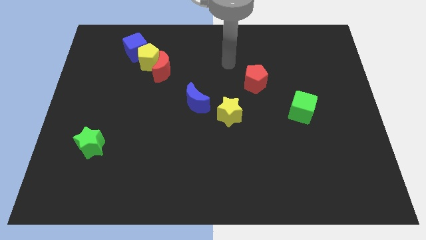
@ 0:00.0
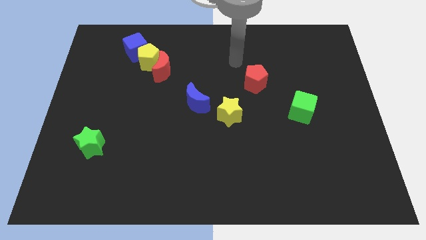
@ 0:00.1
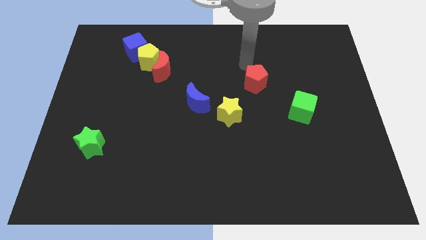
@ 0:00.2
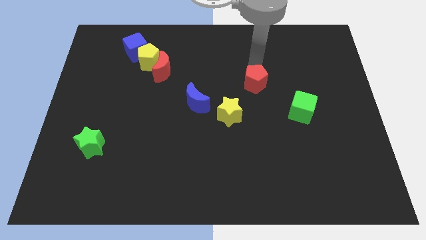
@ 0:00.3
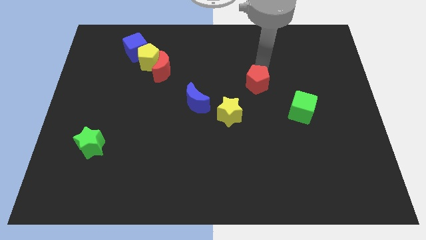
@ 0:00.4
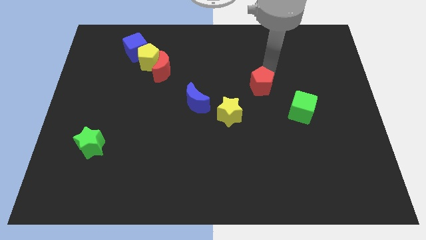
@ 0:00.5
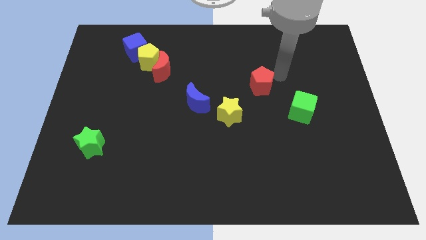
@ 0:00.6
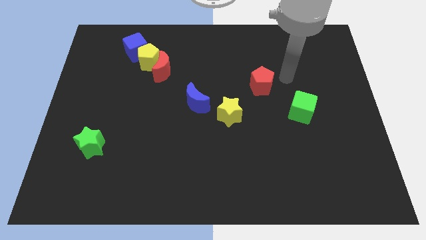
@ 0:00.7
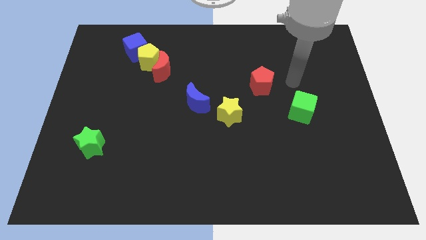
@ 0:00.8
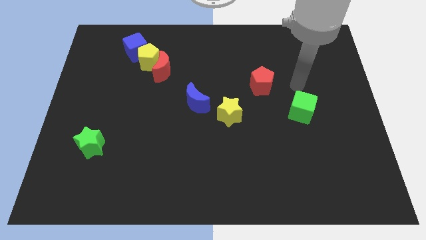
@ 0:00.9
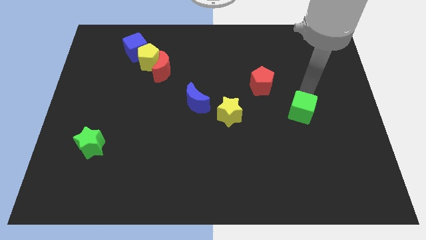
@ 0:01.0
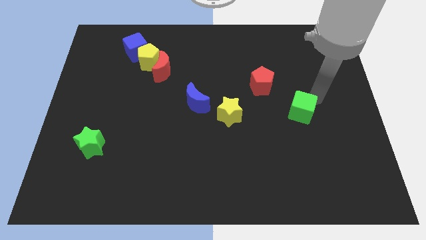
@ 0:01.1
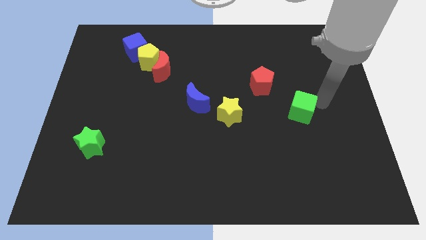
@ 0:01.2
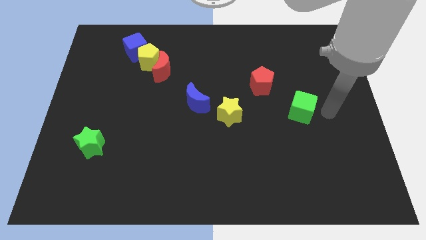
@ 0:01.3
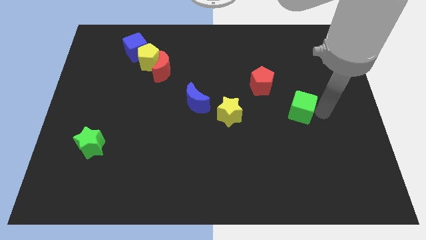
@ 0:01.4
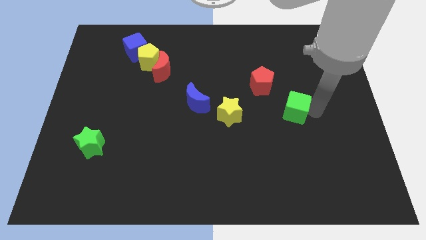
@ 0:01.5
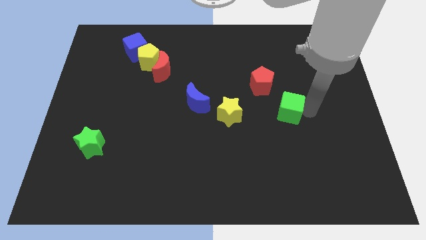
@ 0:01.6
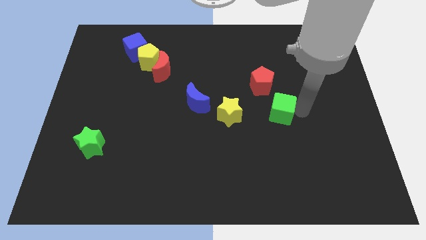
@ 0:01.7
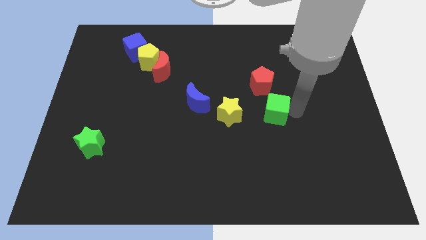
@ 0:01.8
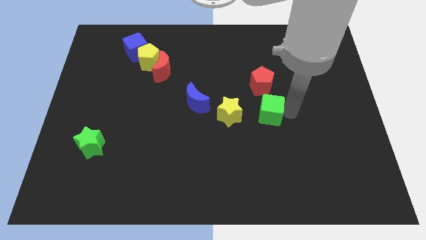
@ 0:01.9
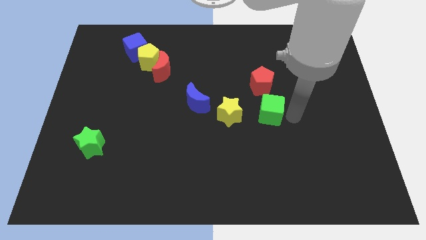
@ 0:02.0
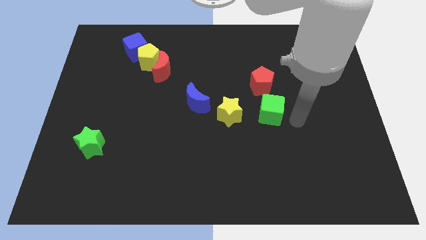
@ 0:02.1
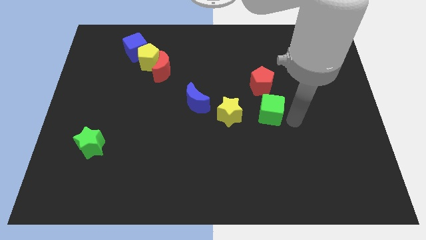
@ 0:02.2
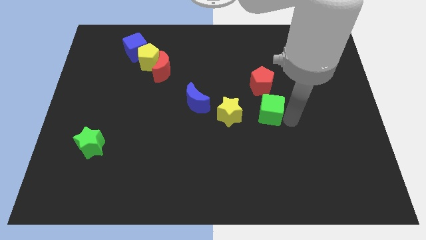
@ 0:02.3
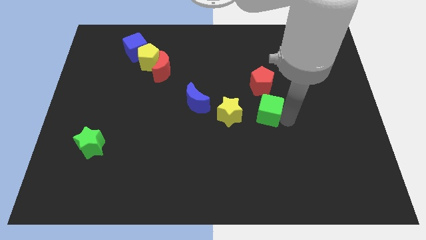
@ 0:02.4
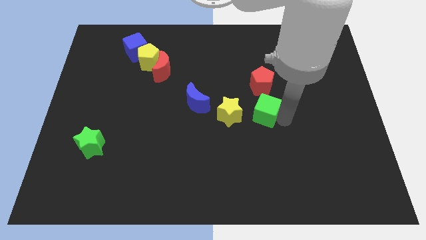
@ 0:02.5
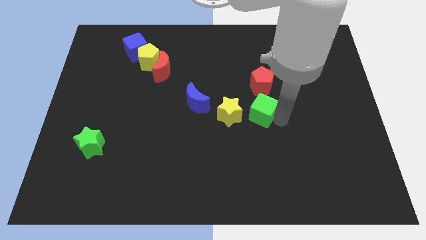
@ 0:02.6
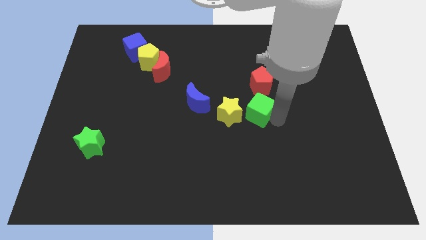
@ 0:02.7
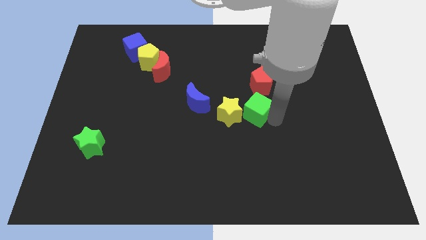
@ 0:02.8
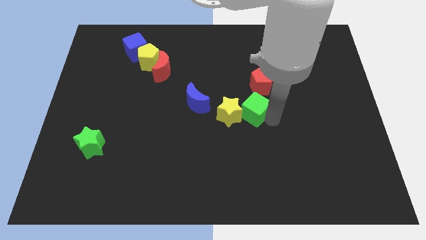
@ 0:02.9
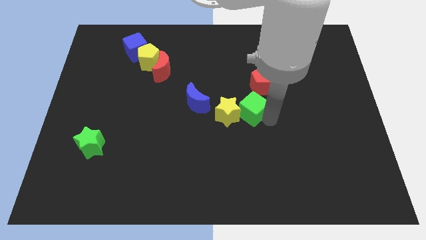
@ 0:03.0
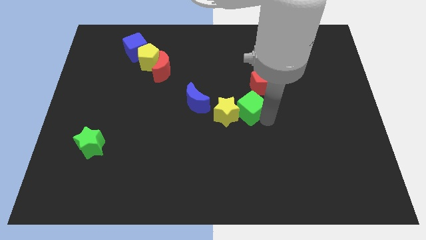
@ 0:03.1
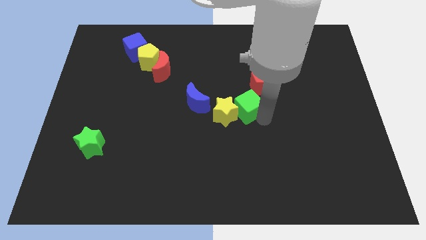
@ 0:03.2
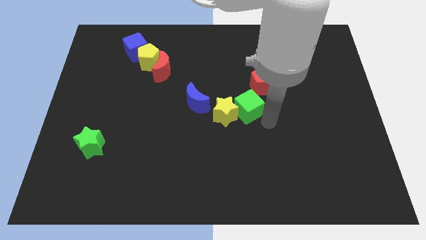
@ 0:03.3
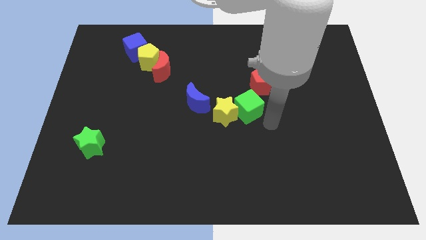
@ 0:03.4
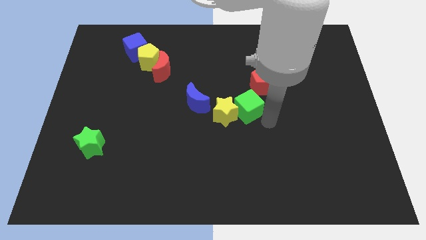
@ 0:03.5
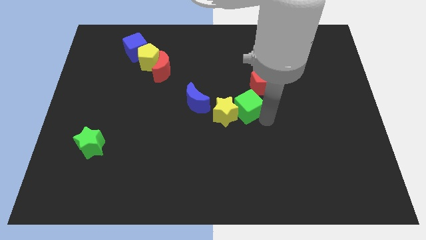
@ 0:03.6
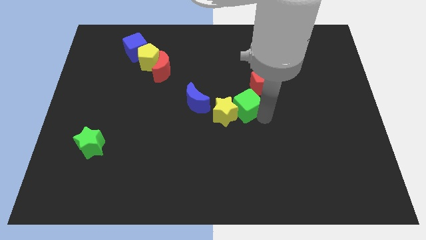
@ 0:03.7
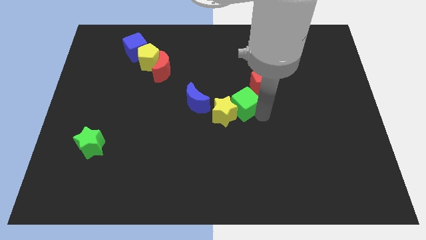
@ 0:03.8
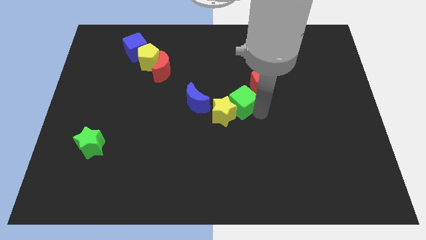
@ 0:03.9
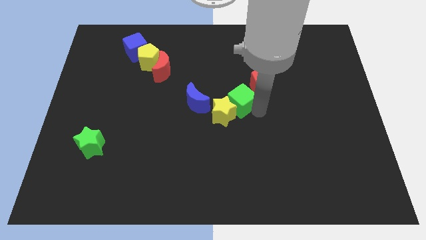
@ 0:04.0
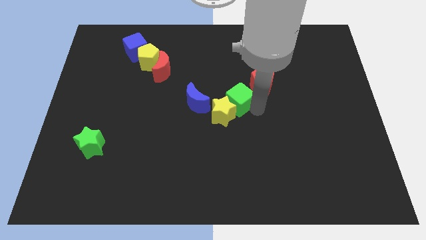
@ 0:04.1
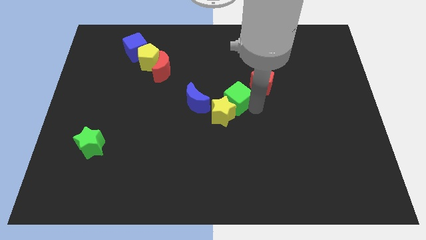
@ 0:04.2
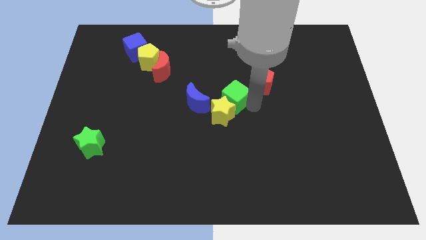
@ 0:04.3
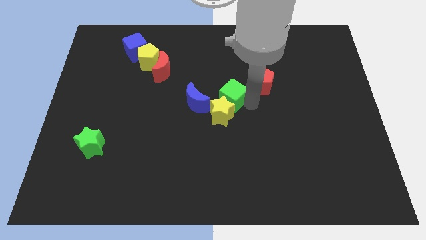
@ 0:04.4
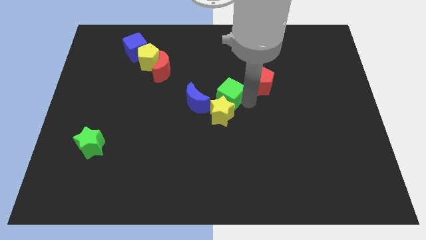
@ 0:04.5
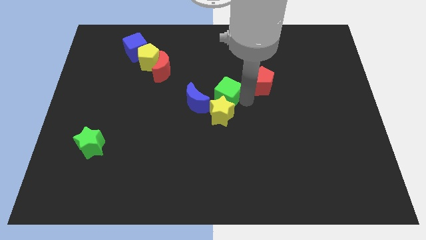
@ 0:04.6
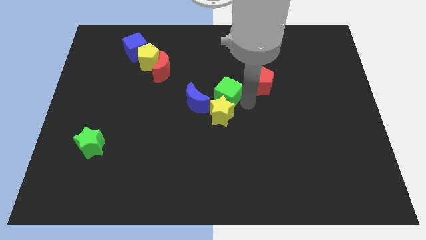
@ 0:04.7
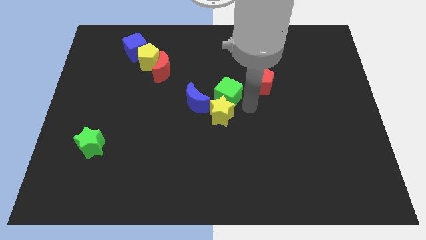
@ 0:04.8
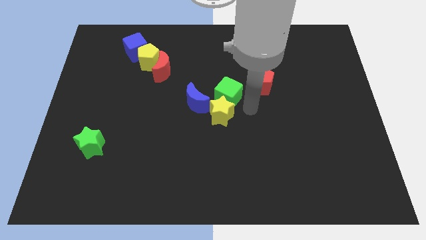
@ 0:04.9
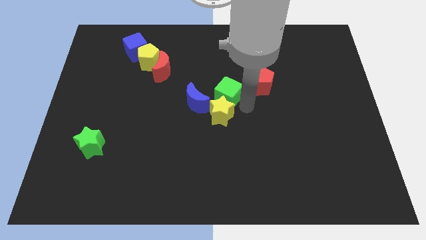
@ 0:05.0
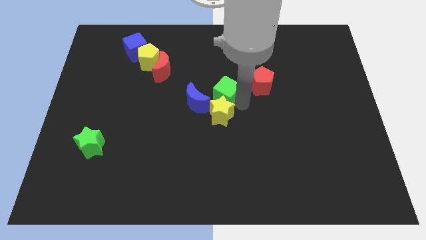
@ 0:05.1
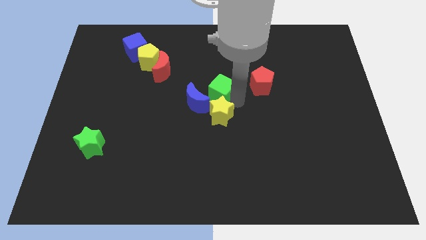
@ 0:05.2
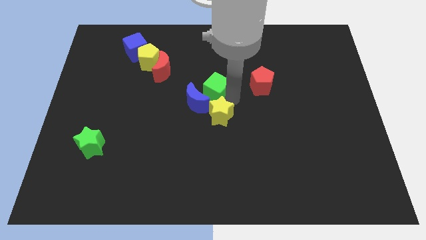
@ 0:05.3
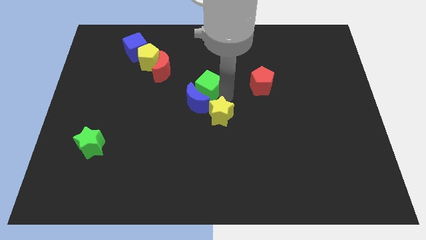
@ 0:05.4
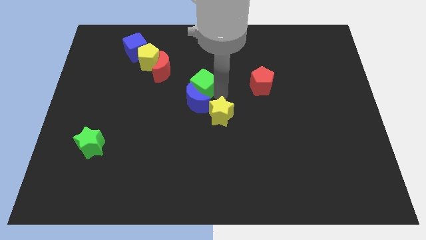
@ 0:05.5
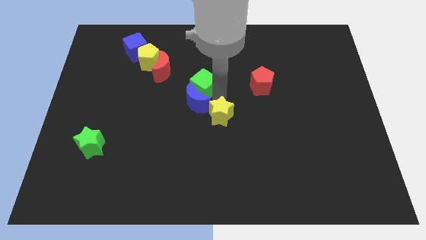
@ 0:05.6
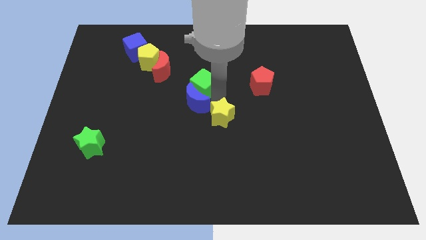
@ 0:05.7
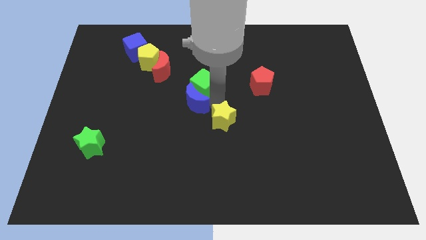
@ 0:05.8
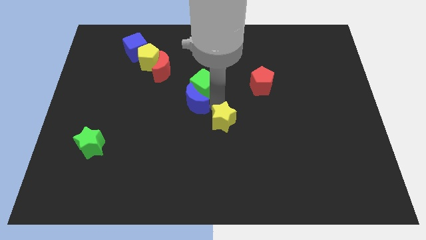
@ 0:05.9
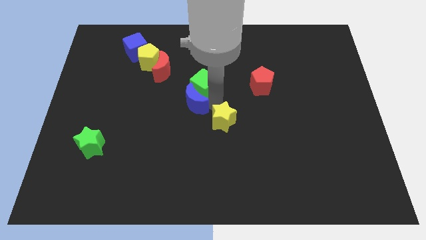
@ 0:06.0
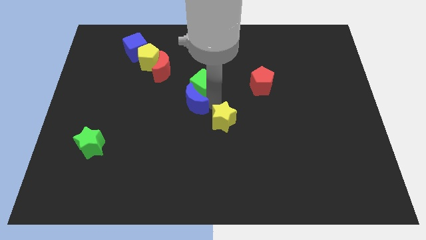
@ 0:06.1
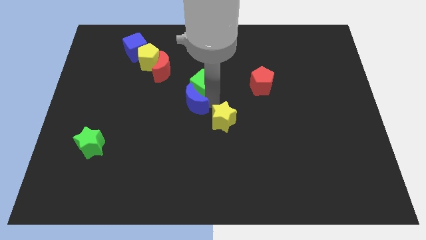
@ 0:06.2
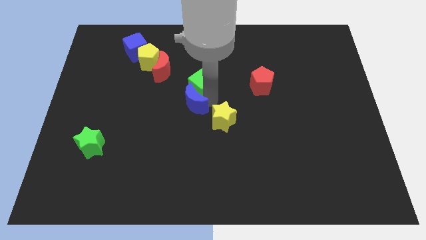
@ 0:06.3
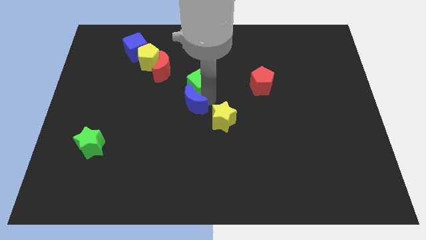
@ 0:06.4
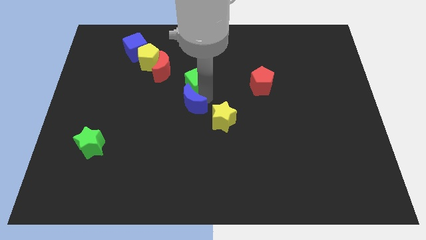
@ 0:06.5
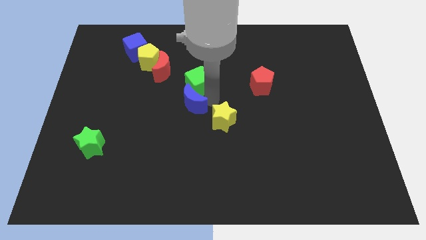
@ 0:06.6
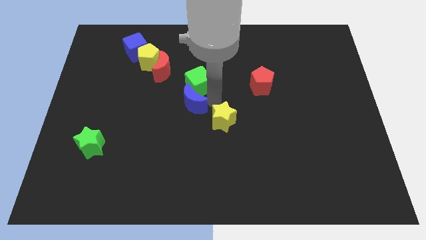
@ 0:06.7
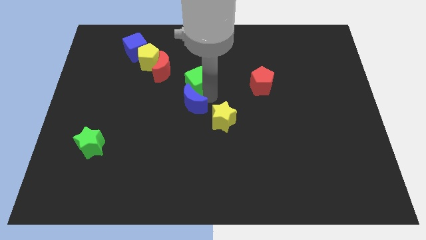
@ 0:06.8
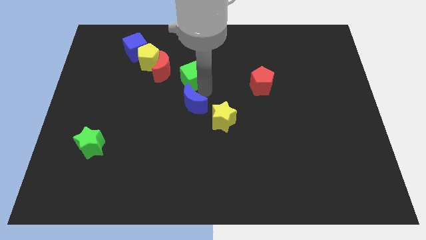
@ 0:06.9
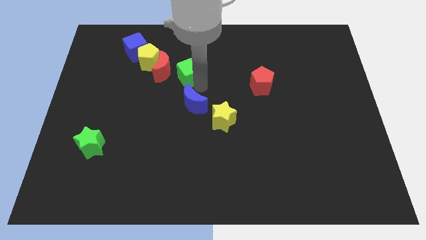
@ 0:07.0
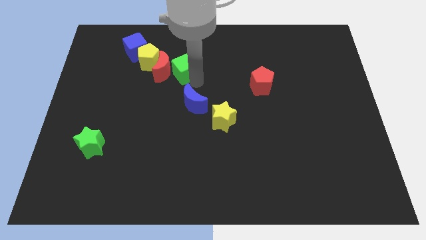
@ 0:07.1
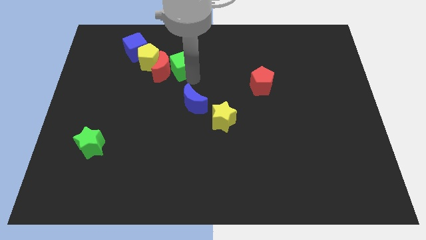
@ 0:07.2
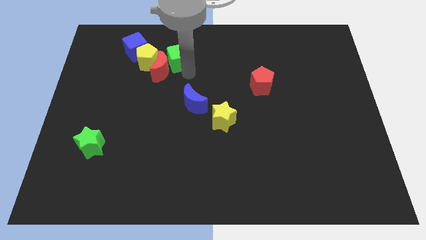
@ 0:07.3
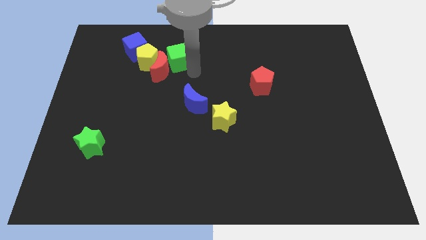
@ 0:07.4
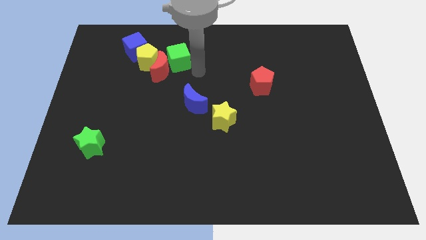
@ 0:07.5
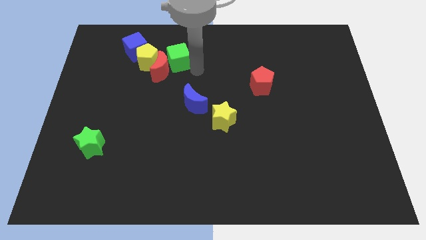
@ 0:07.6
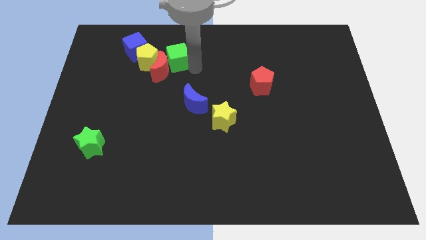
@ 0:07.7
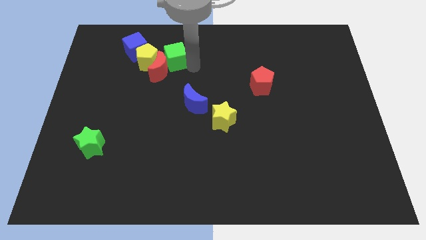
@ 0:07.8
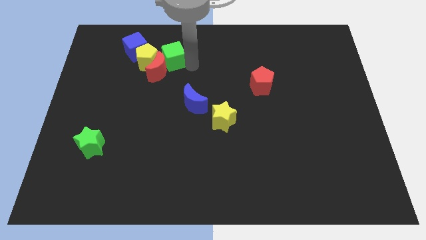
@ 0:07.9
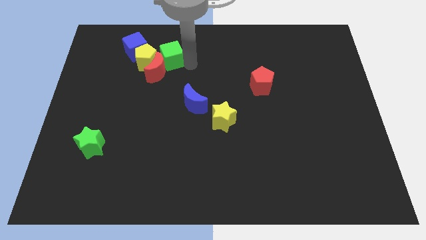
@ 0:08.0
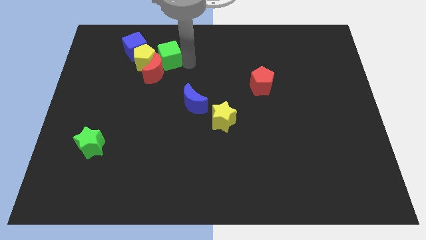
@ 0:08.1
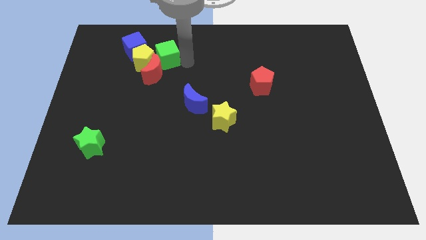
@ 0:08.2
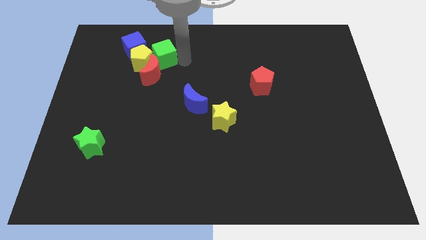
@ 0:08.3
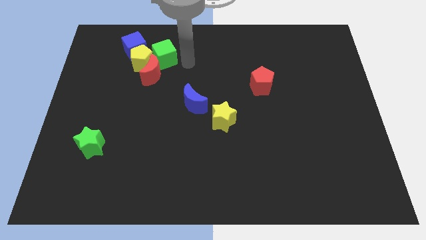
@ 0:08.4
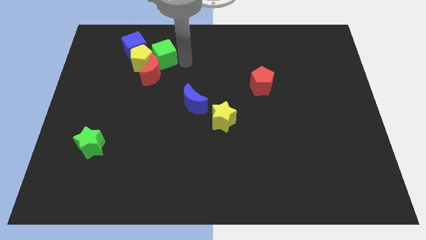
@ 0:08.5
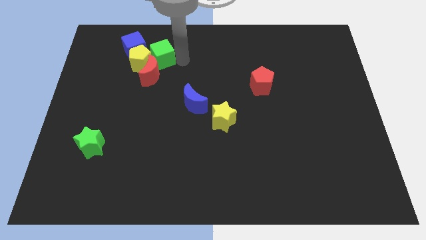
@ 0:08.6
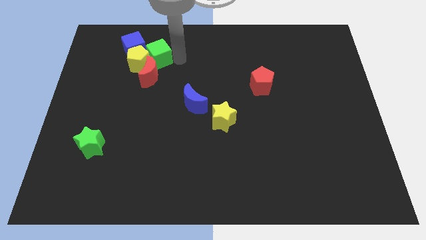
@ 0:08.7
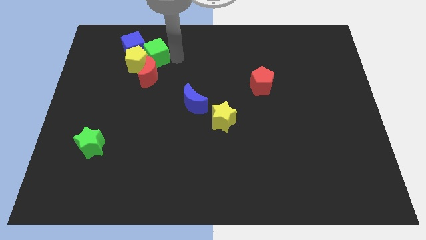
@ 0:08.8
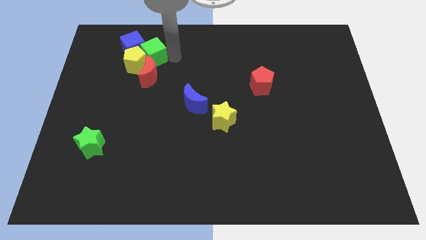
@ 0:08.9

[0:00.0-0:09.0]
put the green cube close to the blue cube
